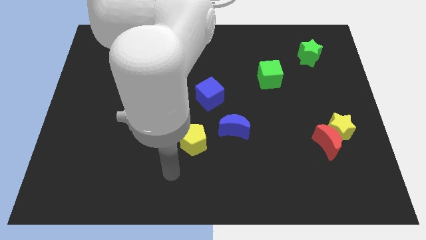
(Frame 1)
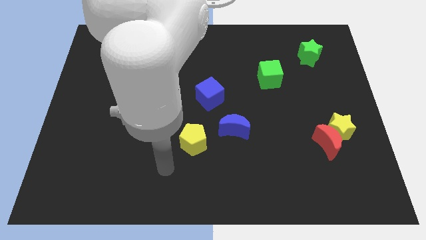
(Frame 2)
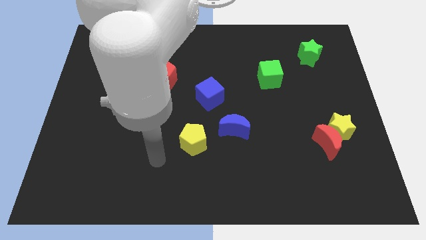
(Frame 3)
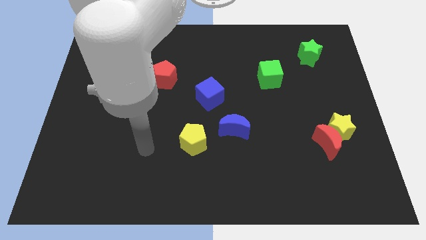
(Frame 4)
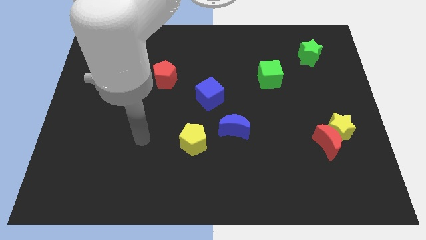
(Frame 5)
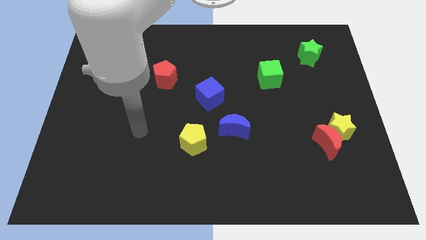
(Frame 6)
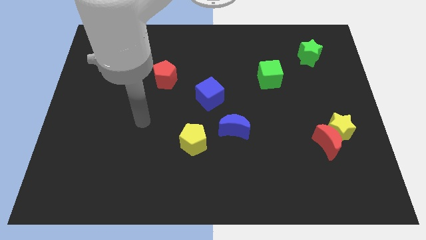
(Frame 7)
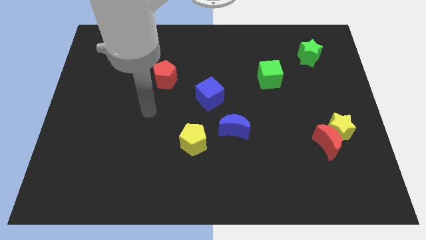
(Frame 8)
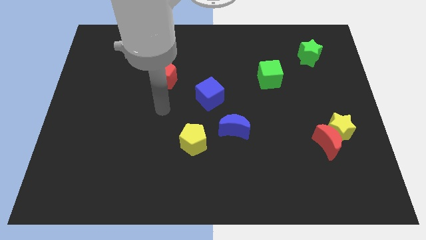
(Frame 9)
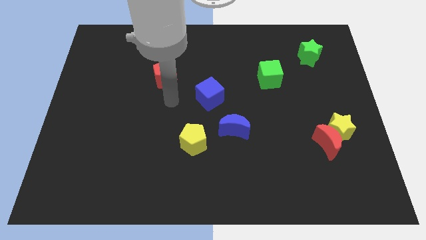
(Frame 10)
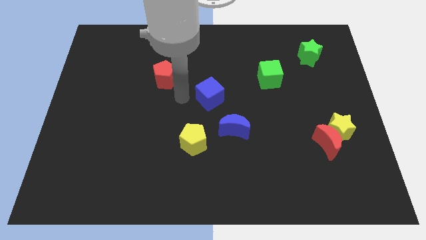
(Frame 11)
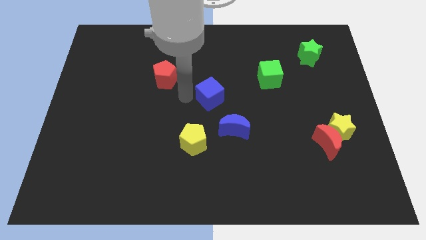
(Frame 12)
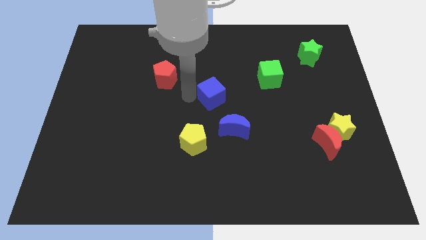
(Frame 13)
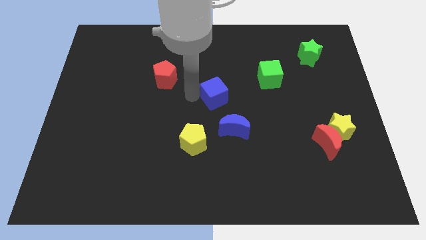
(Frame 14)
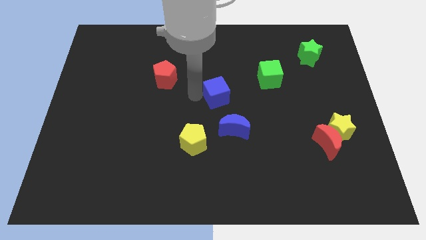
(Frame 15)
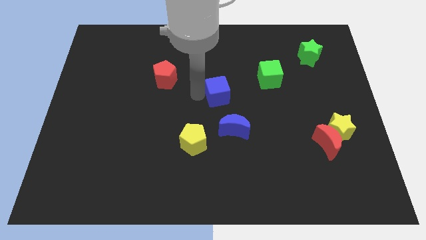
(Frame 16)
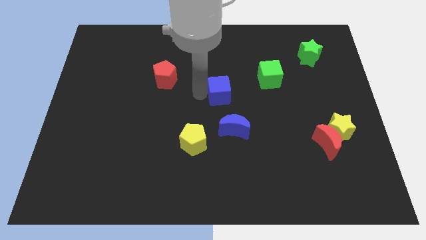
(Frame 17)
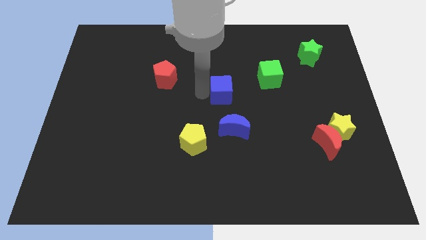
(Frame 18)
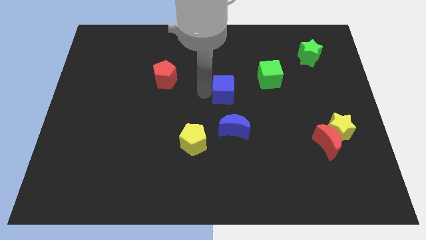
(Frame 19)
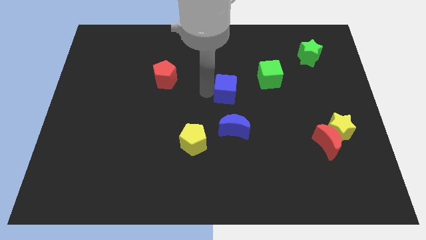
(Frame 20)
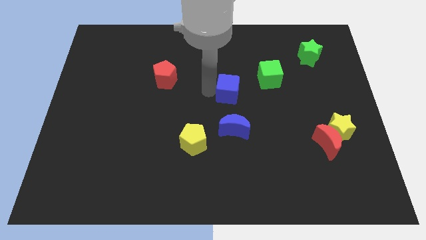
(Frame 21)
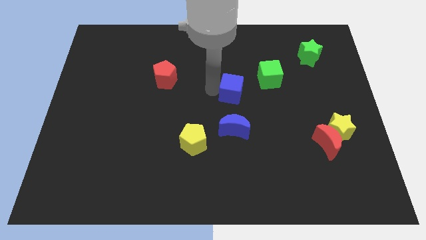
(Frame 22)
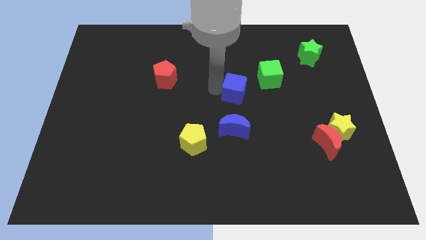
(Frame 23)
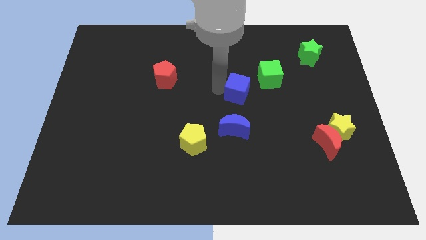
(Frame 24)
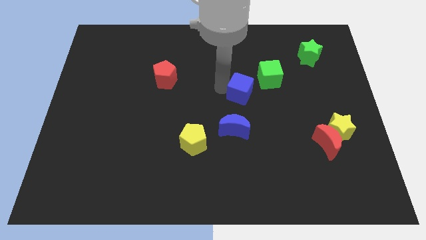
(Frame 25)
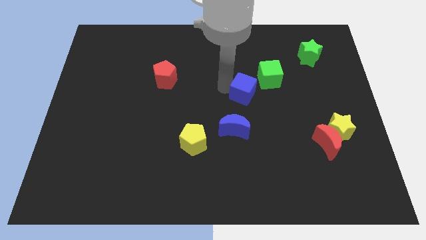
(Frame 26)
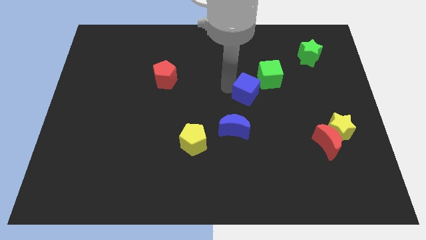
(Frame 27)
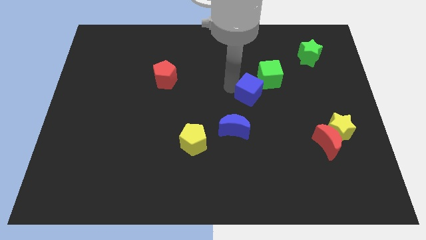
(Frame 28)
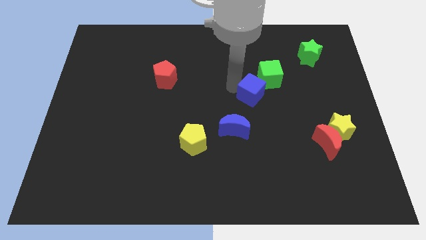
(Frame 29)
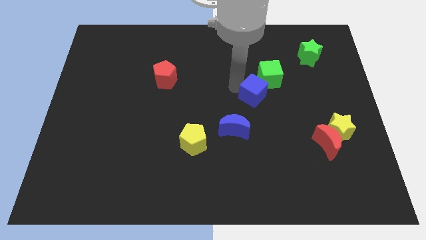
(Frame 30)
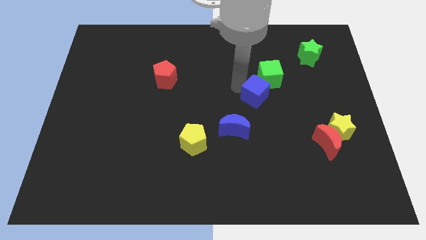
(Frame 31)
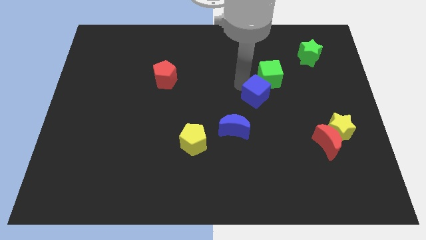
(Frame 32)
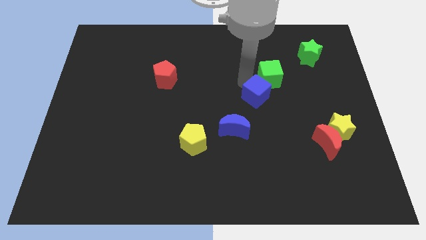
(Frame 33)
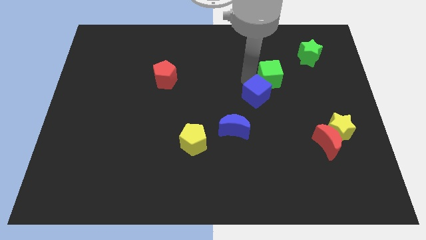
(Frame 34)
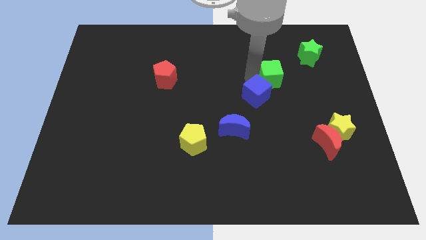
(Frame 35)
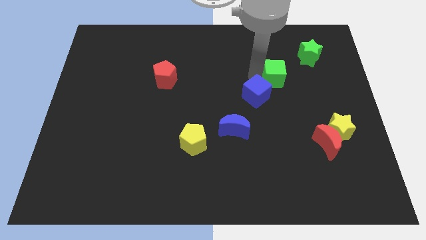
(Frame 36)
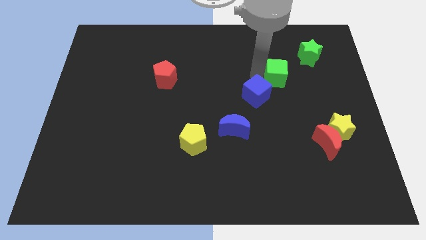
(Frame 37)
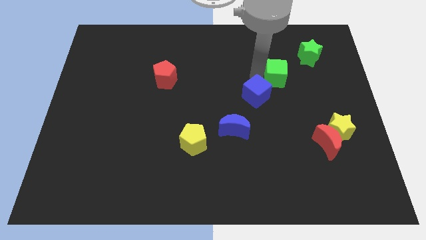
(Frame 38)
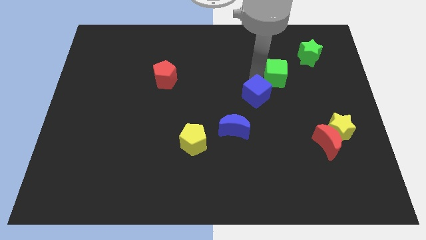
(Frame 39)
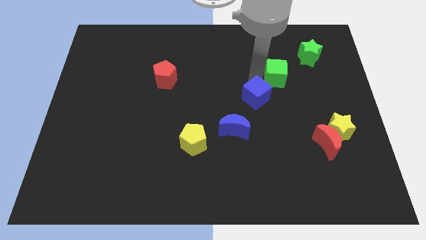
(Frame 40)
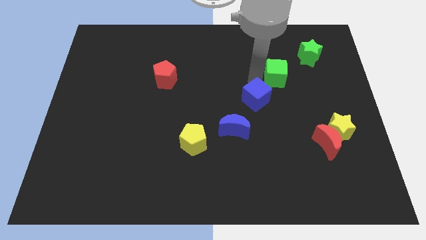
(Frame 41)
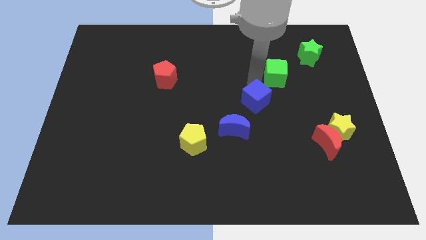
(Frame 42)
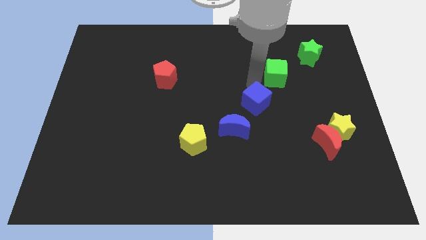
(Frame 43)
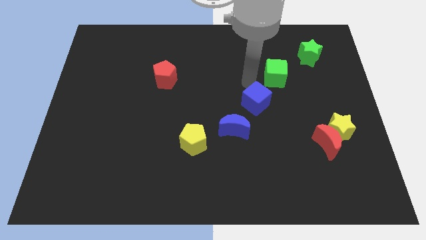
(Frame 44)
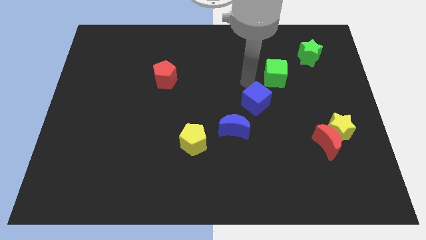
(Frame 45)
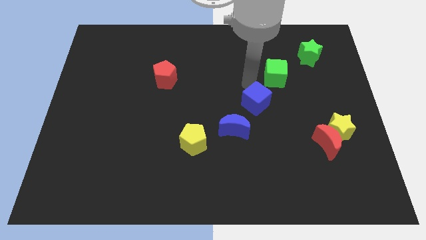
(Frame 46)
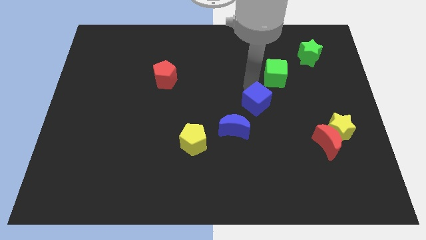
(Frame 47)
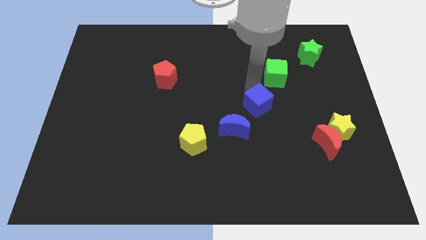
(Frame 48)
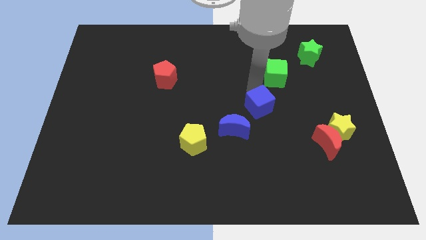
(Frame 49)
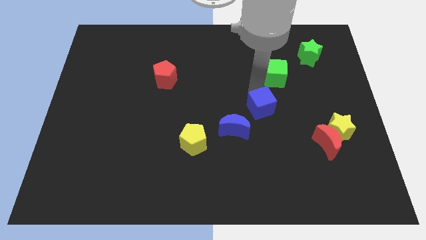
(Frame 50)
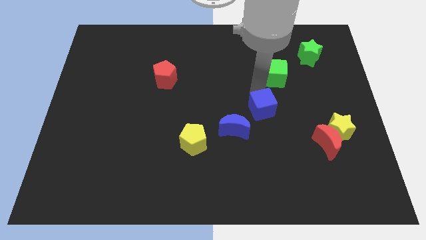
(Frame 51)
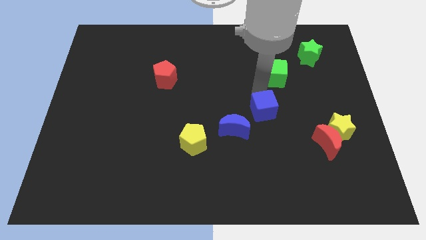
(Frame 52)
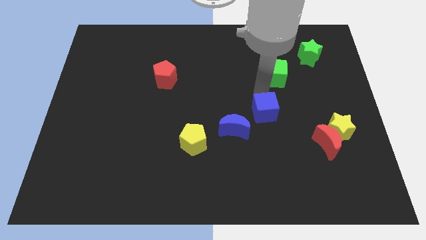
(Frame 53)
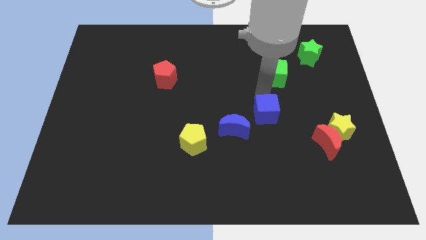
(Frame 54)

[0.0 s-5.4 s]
move the blue cube just right of the blue moon

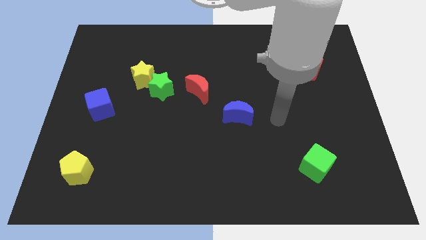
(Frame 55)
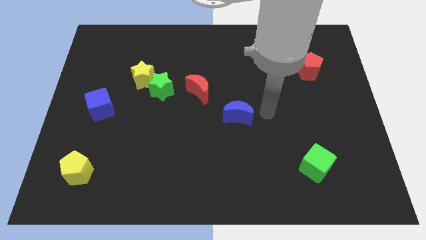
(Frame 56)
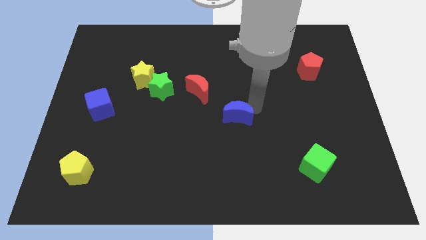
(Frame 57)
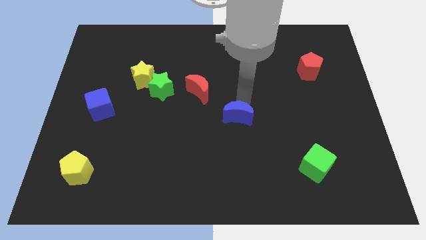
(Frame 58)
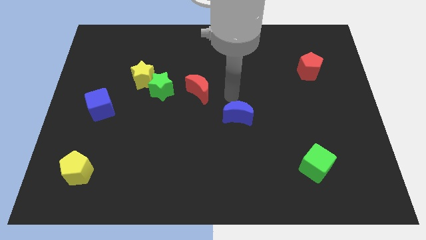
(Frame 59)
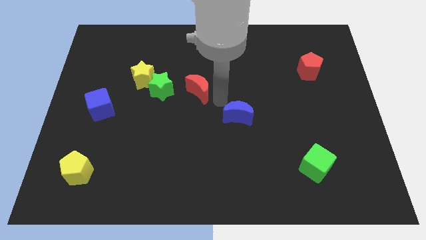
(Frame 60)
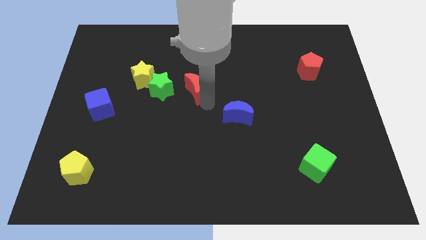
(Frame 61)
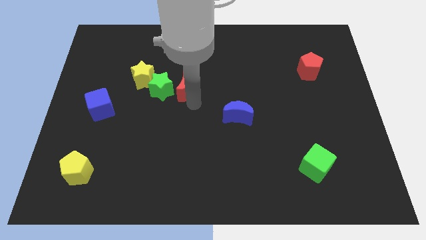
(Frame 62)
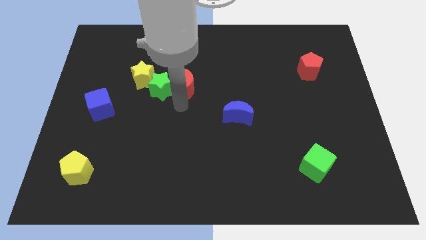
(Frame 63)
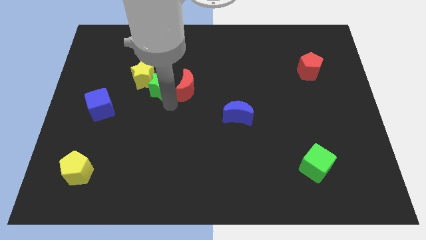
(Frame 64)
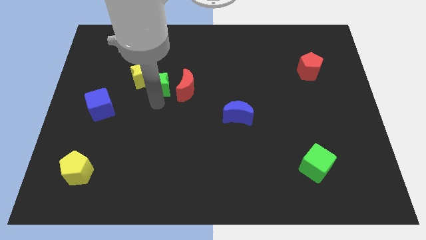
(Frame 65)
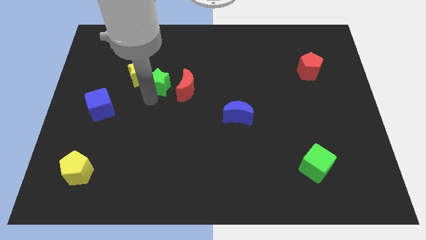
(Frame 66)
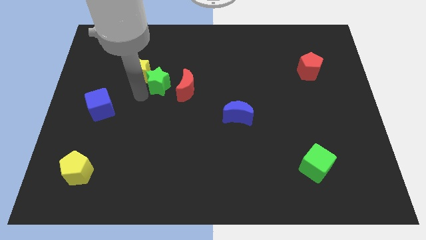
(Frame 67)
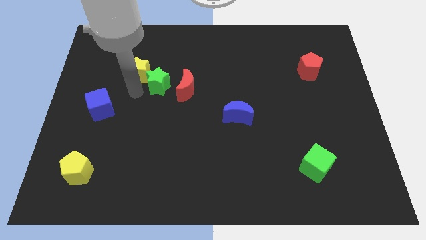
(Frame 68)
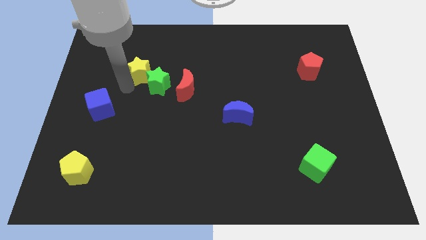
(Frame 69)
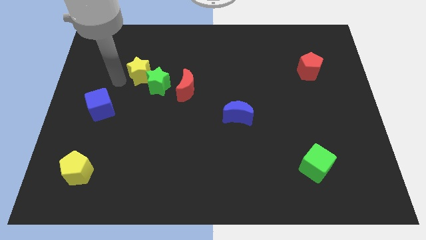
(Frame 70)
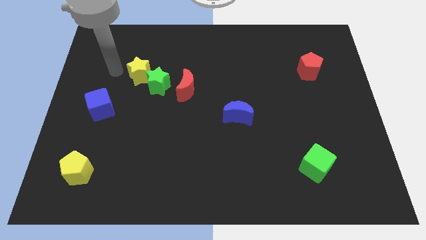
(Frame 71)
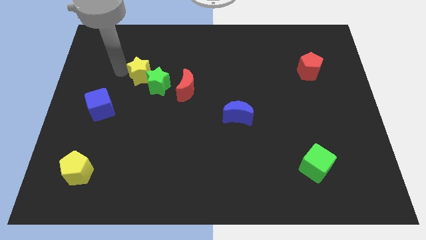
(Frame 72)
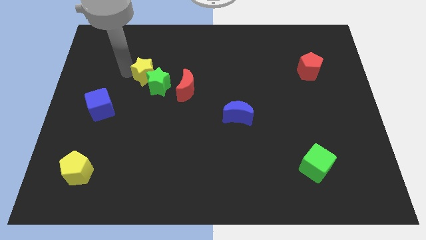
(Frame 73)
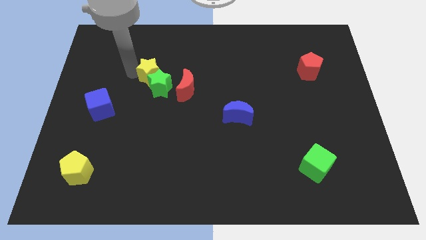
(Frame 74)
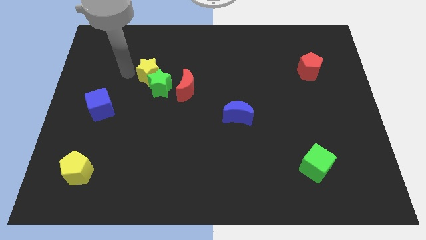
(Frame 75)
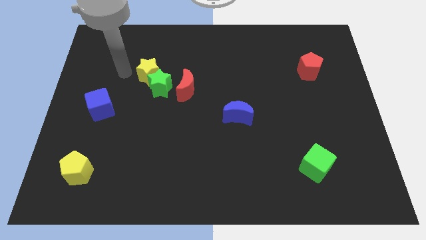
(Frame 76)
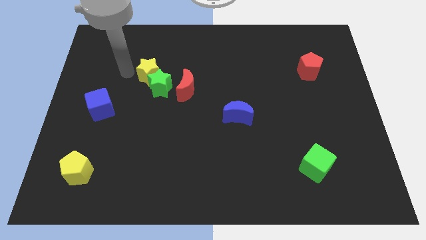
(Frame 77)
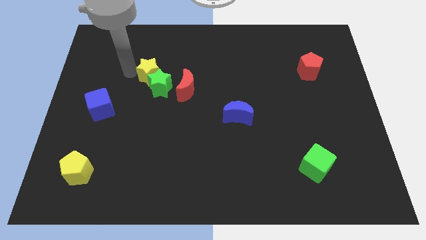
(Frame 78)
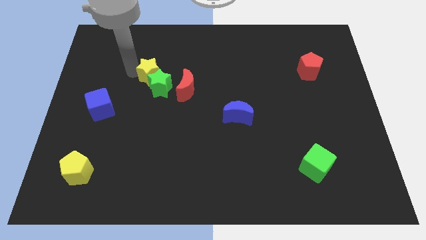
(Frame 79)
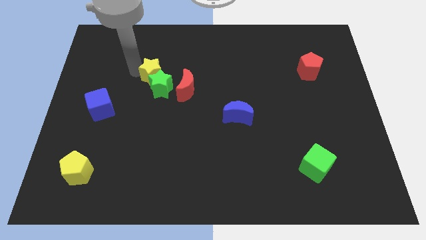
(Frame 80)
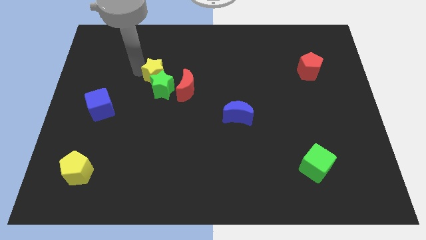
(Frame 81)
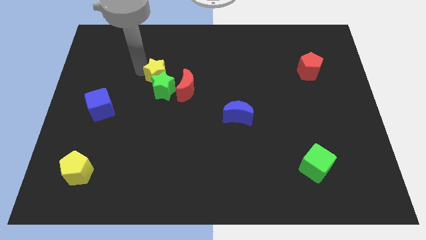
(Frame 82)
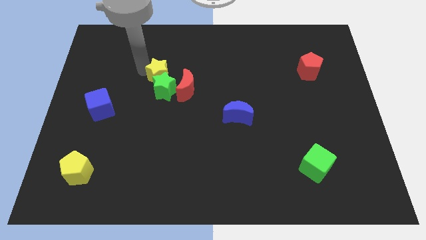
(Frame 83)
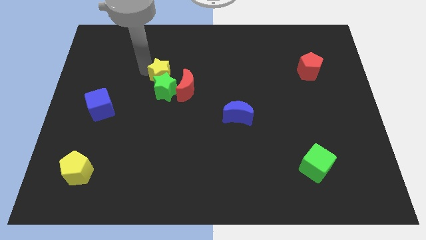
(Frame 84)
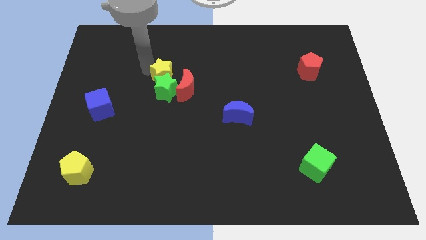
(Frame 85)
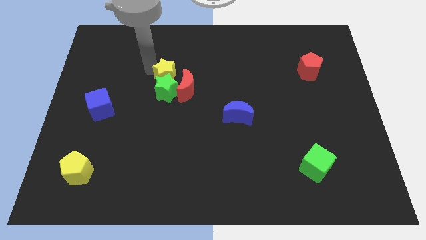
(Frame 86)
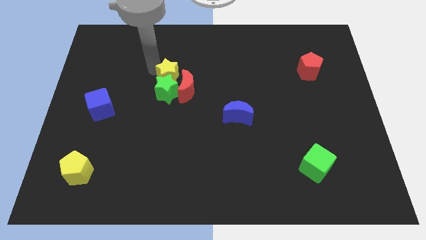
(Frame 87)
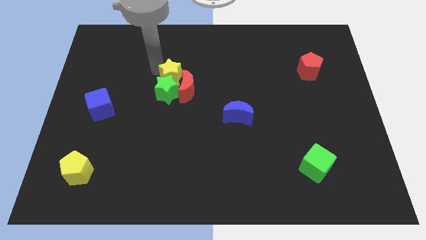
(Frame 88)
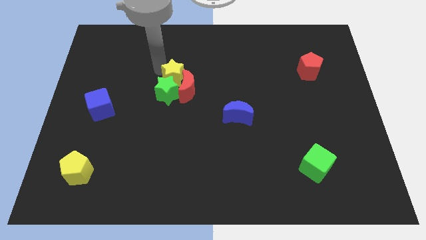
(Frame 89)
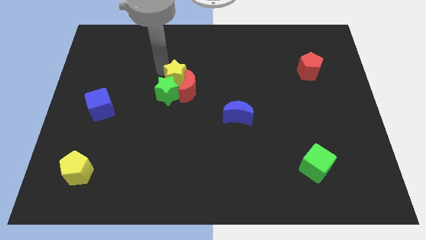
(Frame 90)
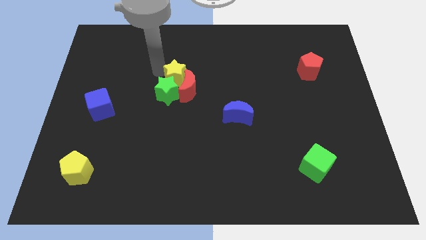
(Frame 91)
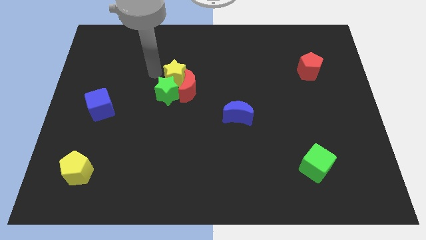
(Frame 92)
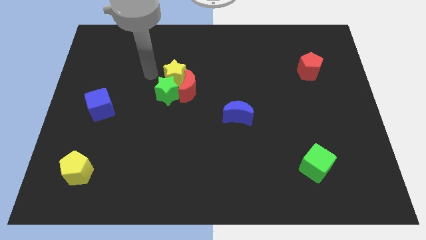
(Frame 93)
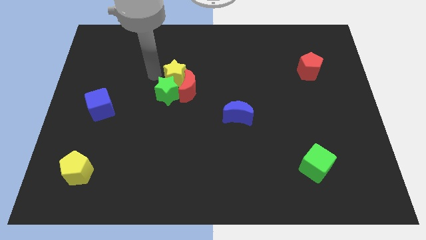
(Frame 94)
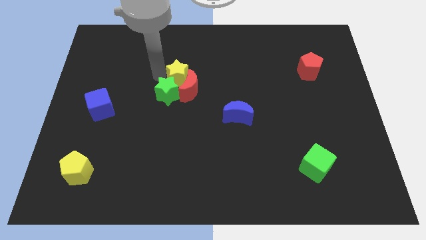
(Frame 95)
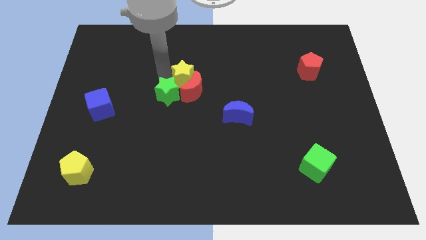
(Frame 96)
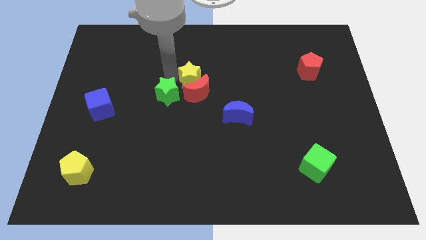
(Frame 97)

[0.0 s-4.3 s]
move the yellow star to the right of the green star
